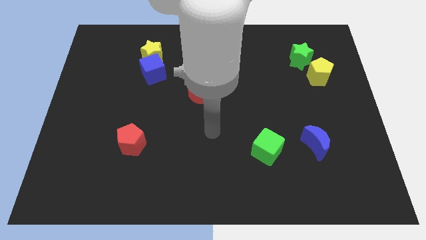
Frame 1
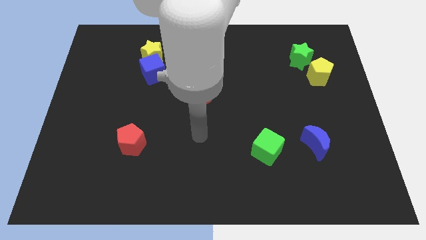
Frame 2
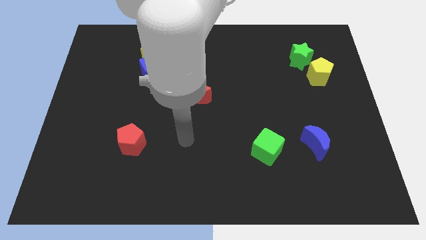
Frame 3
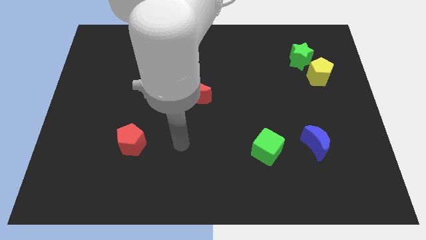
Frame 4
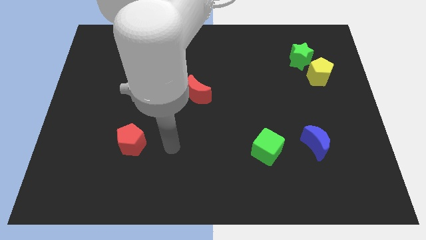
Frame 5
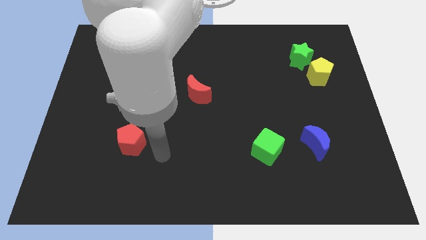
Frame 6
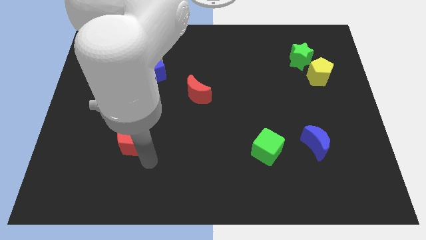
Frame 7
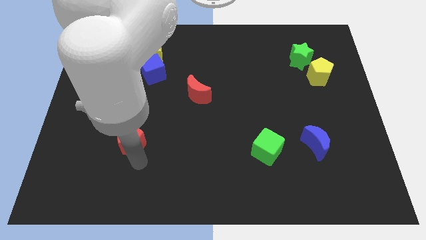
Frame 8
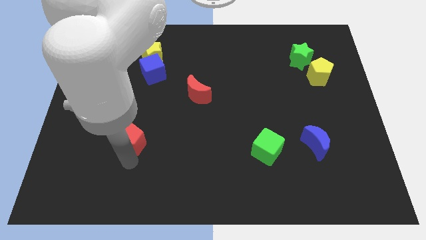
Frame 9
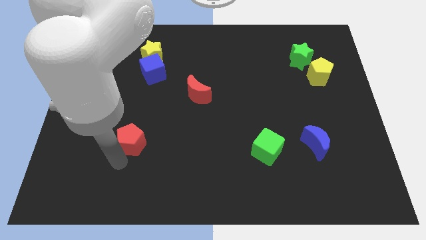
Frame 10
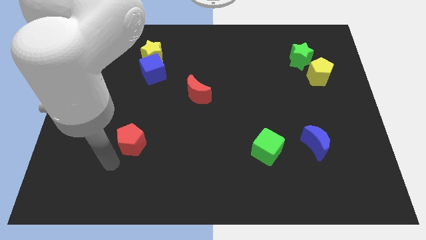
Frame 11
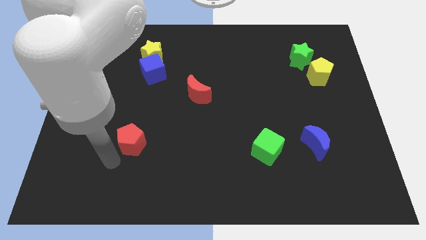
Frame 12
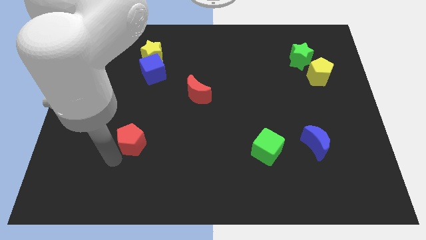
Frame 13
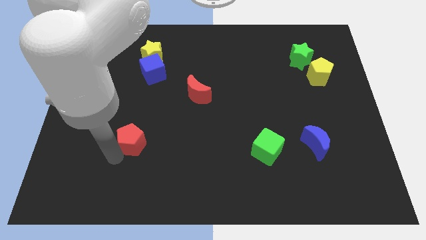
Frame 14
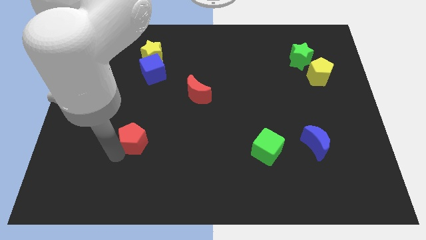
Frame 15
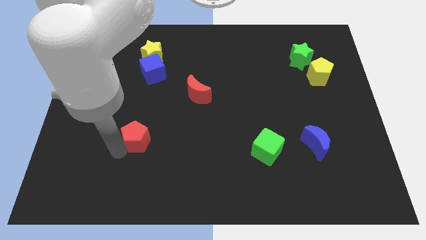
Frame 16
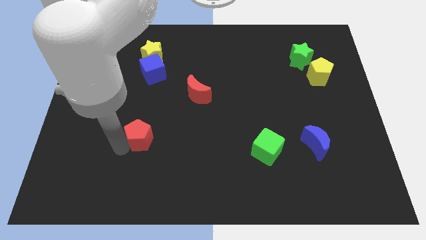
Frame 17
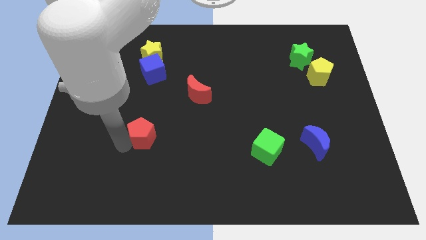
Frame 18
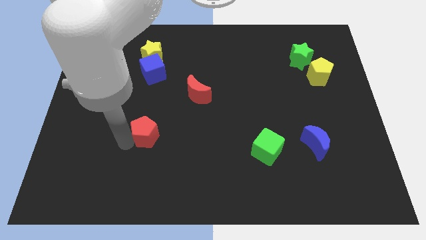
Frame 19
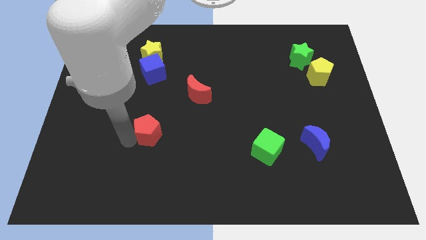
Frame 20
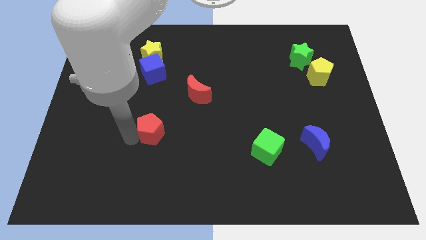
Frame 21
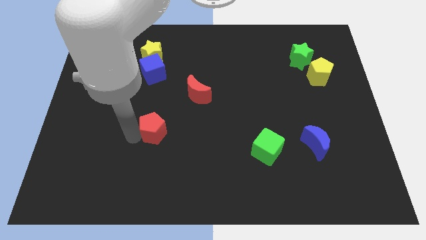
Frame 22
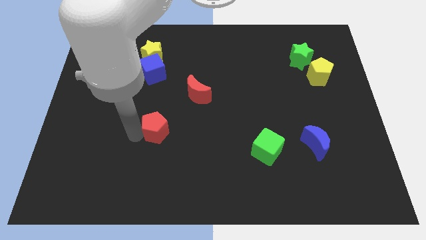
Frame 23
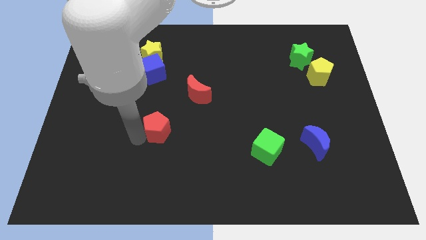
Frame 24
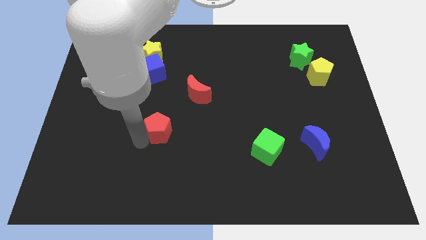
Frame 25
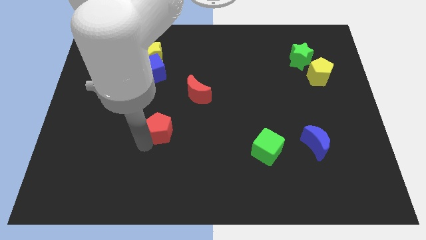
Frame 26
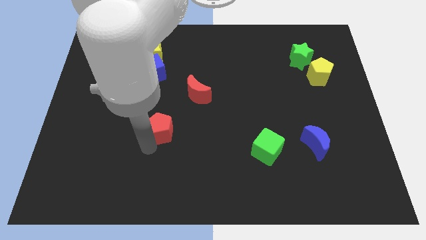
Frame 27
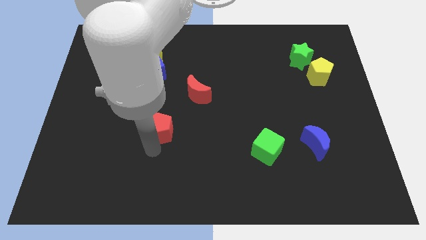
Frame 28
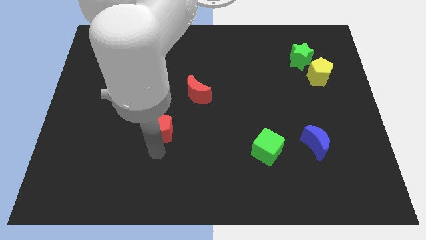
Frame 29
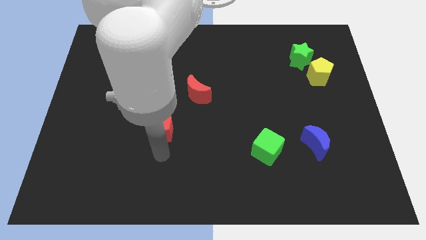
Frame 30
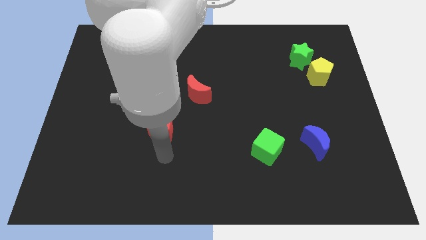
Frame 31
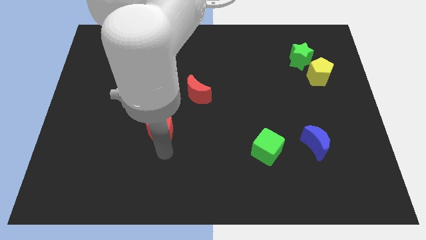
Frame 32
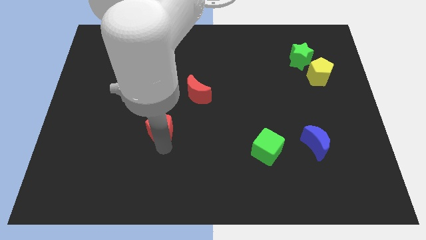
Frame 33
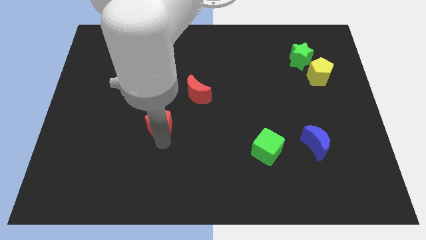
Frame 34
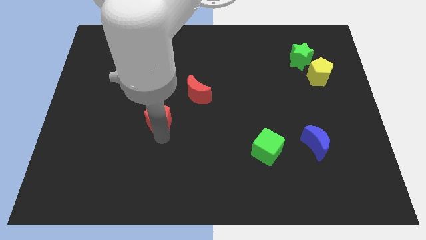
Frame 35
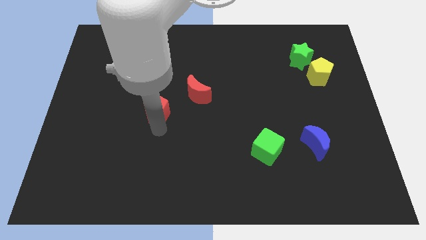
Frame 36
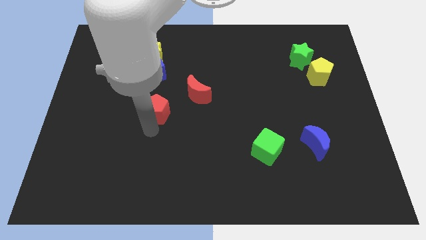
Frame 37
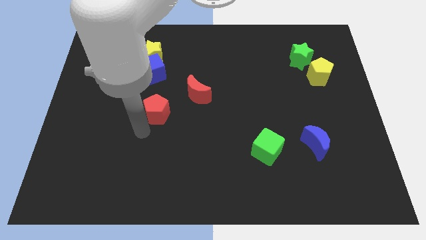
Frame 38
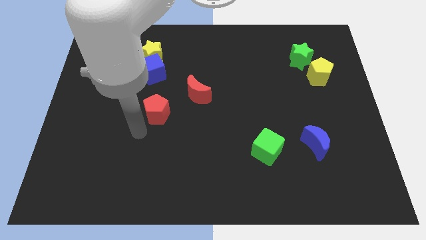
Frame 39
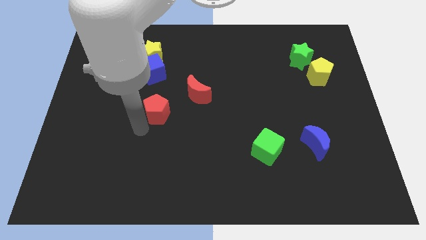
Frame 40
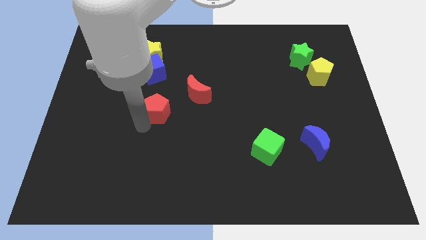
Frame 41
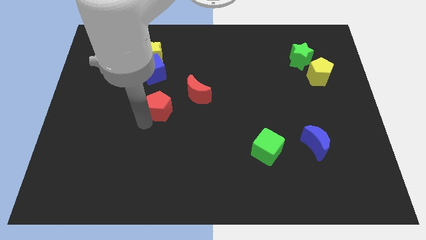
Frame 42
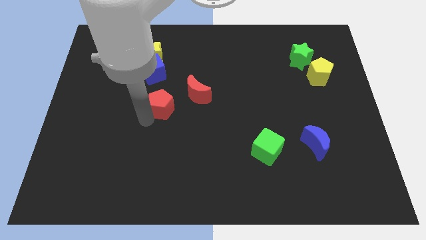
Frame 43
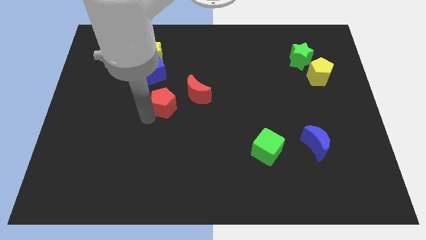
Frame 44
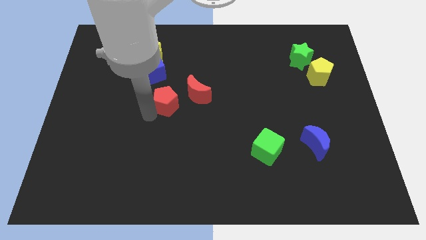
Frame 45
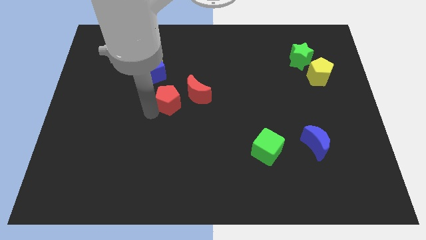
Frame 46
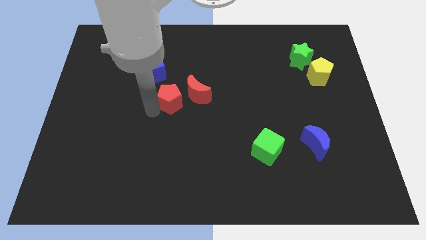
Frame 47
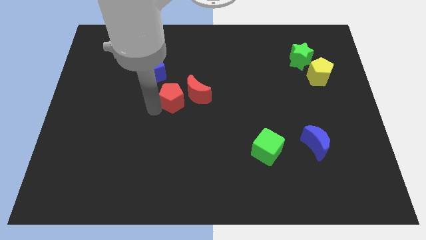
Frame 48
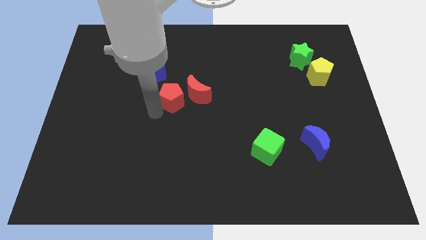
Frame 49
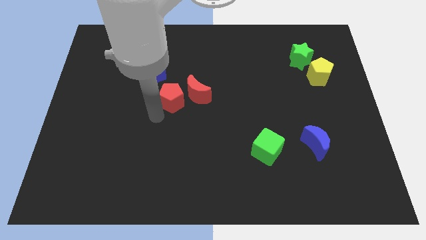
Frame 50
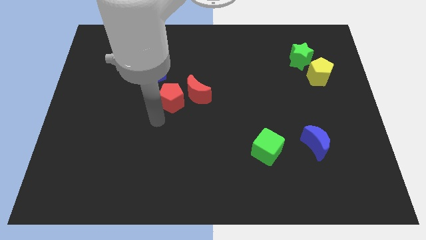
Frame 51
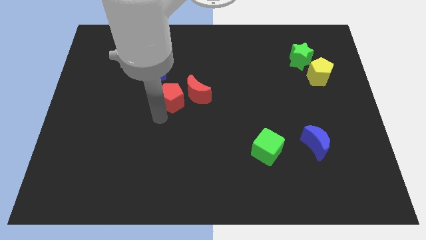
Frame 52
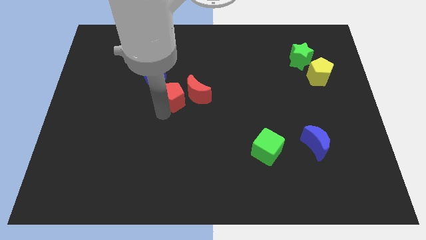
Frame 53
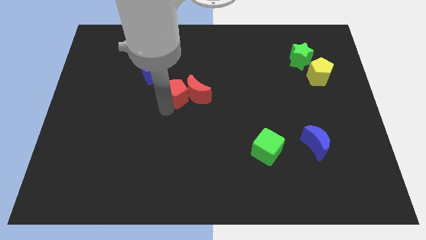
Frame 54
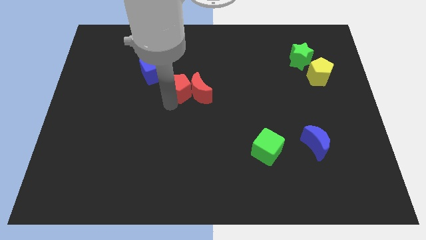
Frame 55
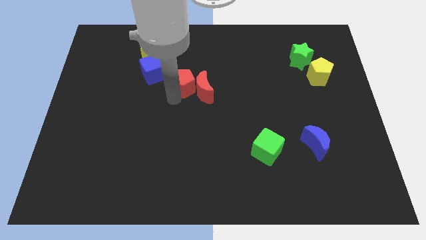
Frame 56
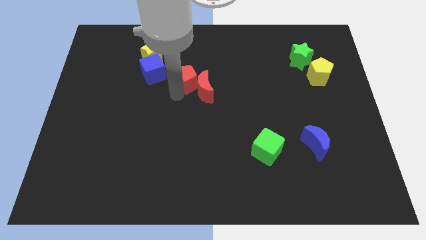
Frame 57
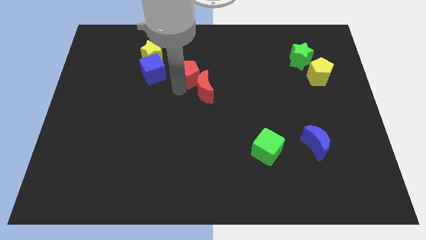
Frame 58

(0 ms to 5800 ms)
push the red pentagon diagonally up and to the right

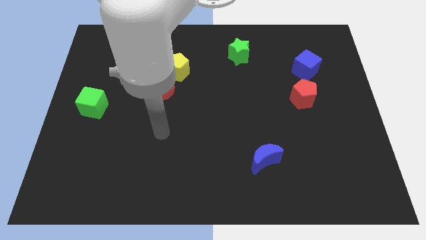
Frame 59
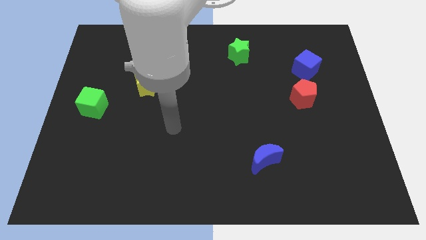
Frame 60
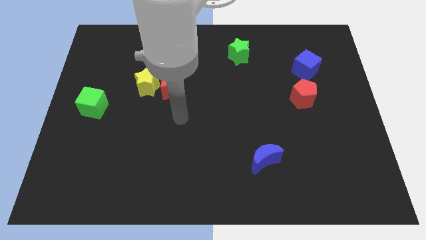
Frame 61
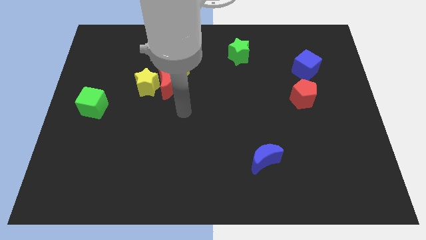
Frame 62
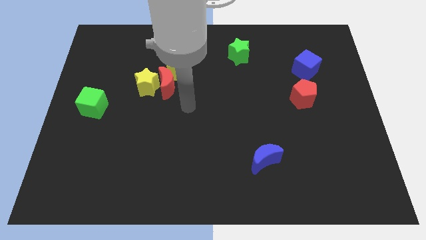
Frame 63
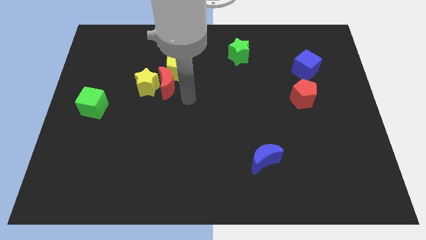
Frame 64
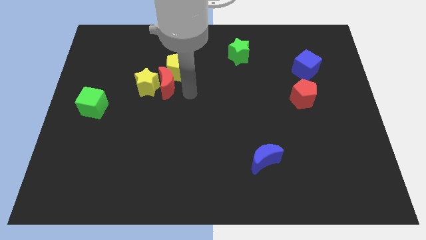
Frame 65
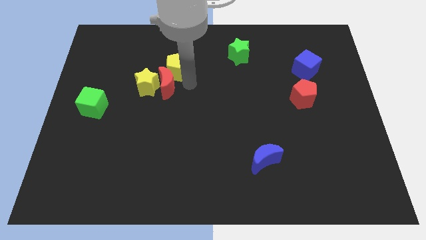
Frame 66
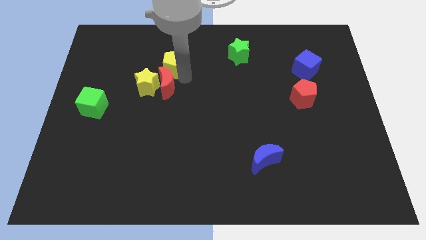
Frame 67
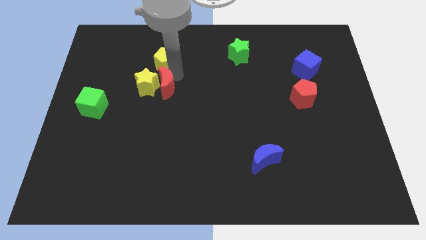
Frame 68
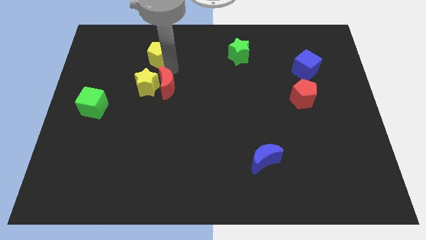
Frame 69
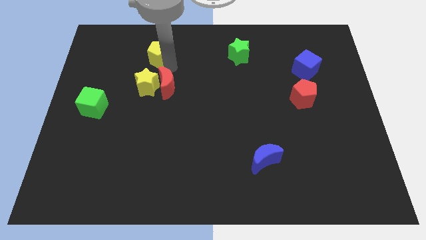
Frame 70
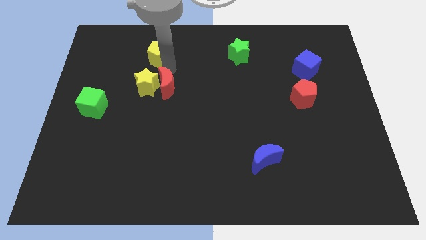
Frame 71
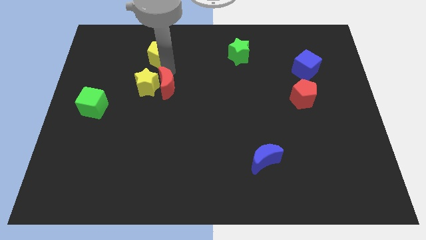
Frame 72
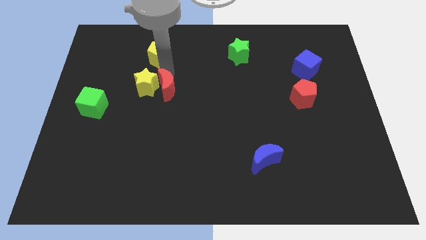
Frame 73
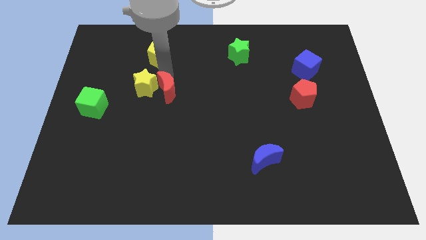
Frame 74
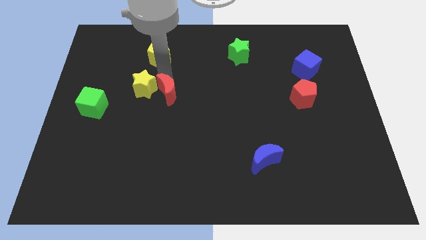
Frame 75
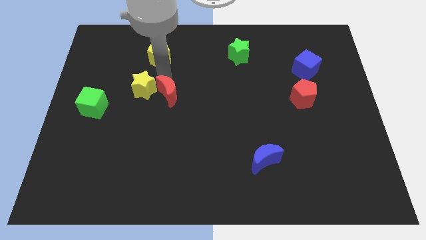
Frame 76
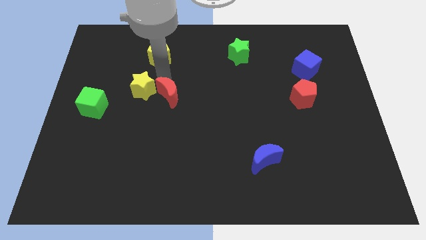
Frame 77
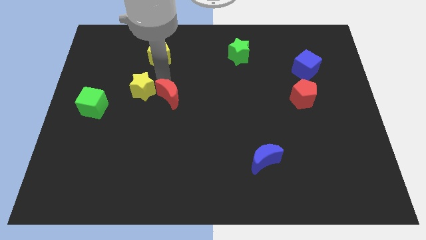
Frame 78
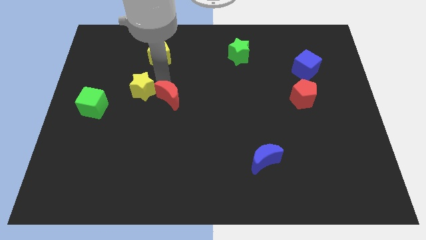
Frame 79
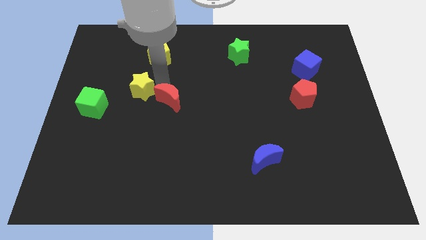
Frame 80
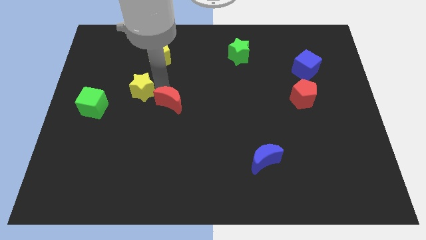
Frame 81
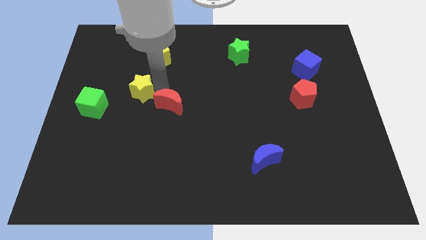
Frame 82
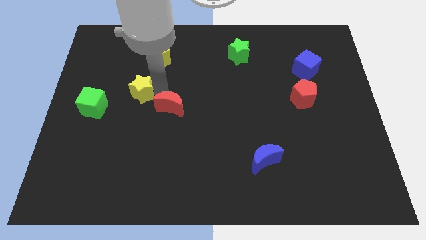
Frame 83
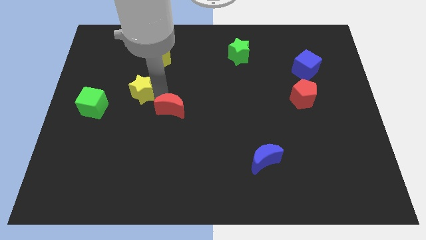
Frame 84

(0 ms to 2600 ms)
push the red moon down a little bit
